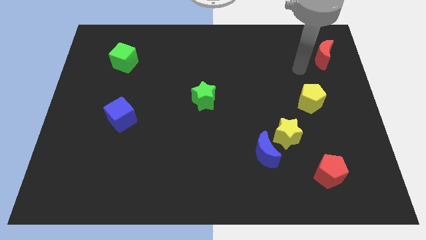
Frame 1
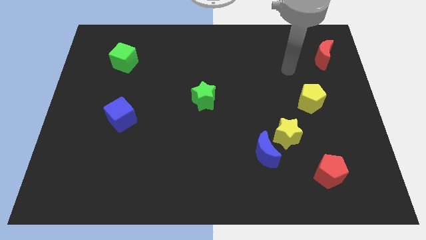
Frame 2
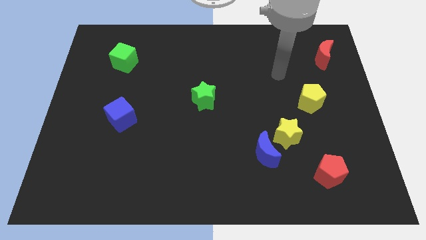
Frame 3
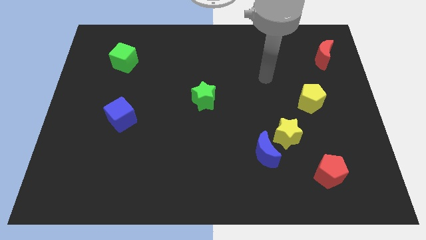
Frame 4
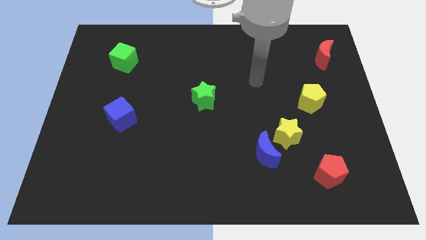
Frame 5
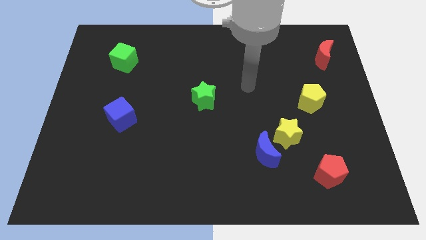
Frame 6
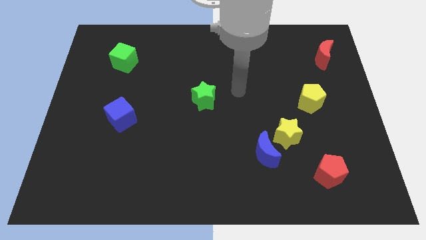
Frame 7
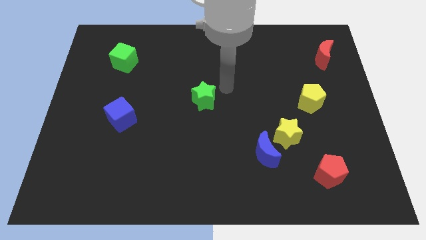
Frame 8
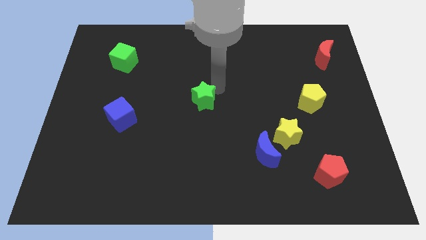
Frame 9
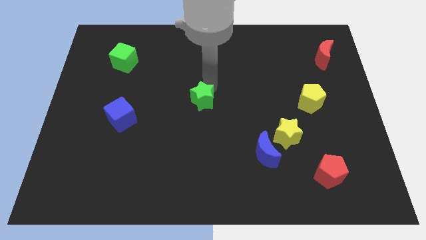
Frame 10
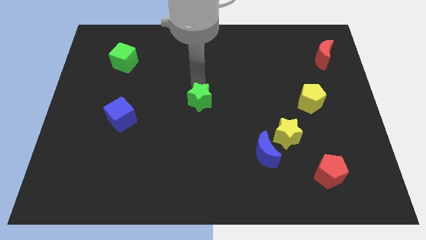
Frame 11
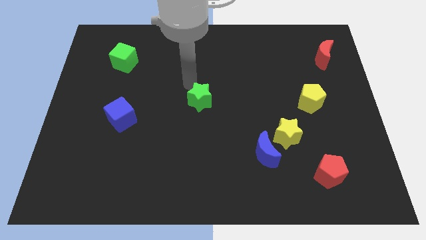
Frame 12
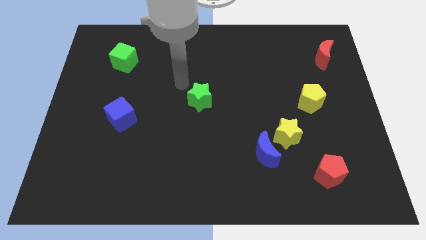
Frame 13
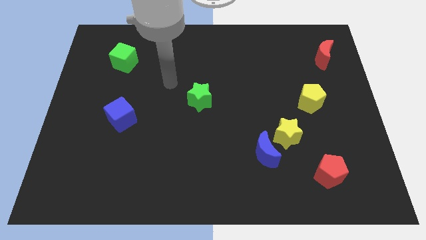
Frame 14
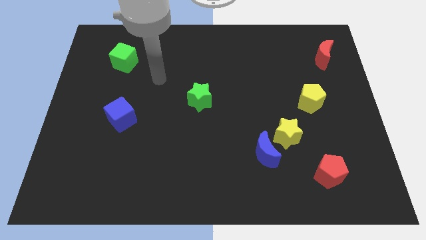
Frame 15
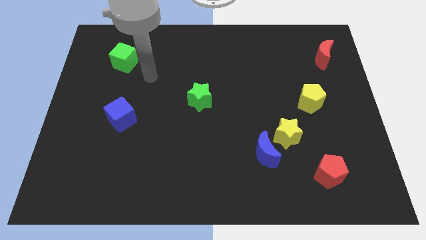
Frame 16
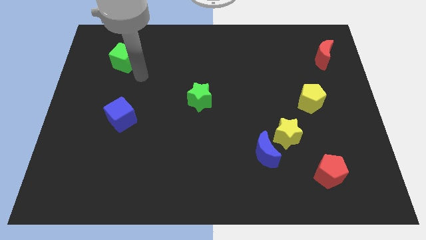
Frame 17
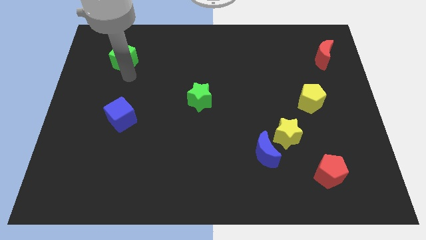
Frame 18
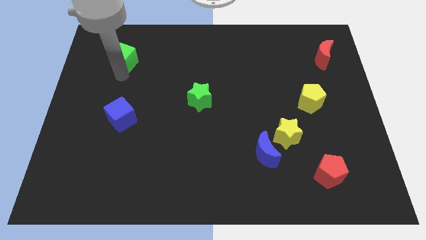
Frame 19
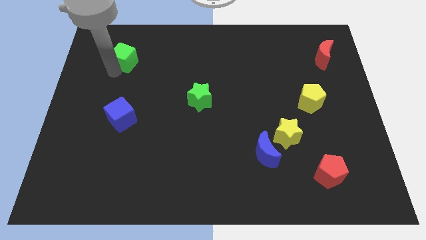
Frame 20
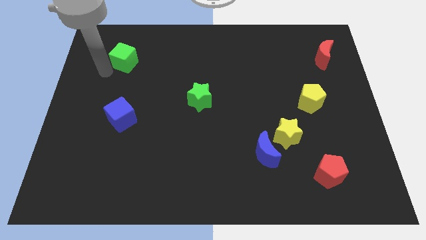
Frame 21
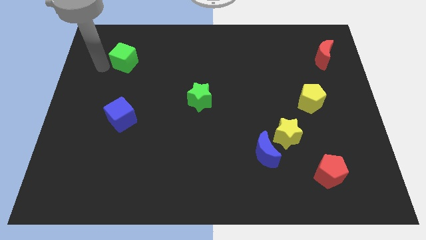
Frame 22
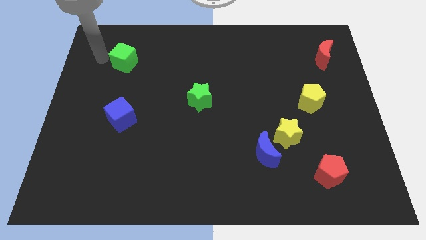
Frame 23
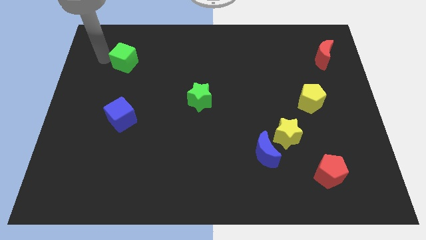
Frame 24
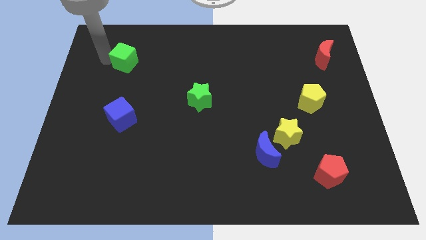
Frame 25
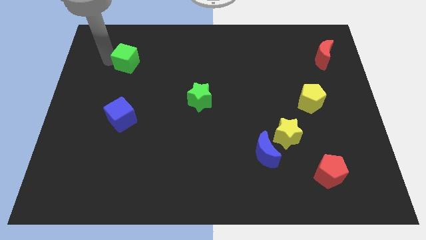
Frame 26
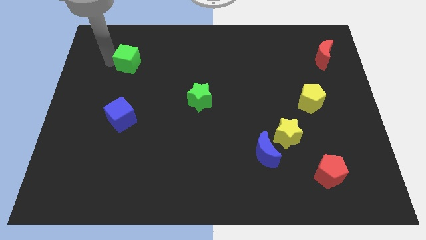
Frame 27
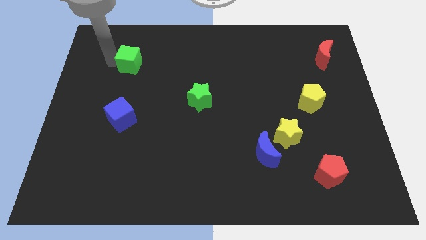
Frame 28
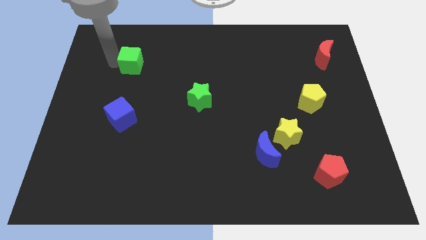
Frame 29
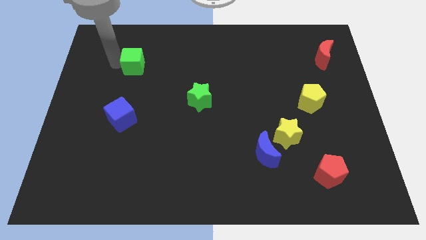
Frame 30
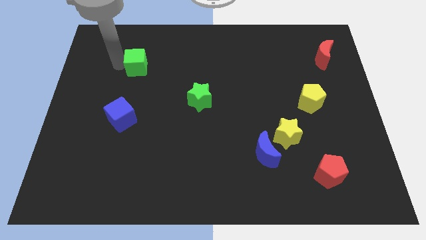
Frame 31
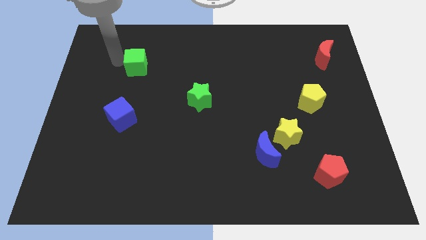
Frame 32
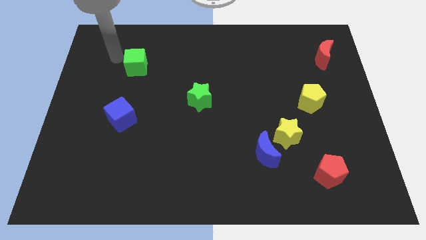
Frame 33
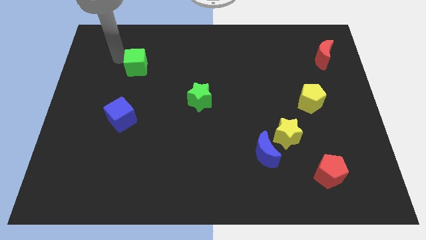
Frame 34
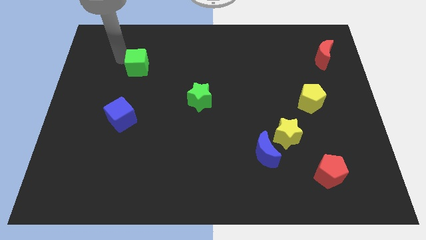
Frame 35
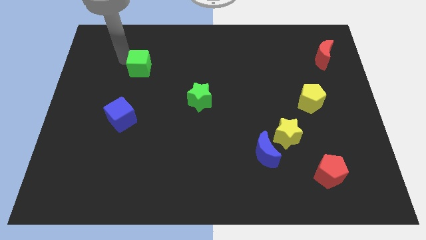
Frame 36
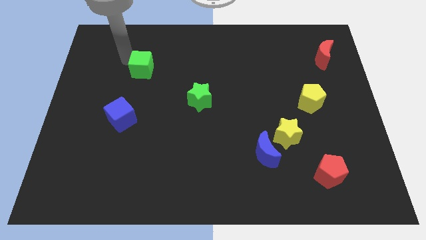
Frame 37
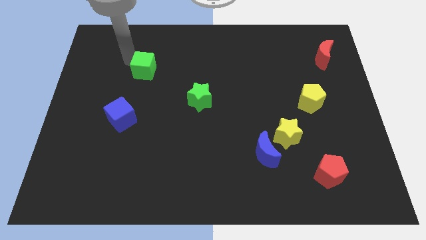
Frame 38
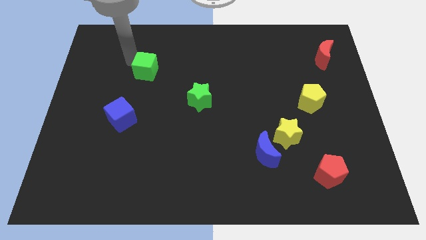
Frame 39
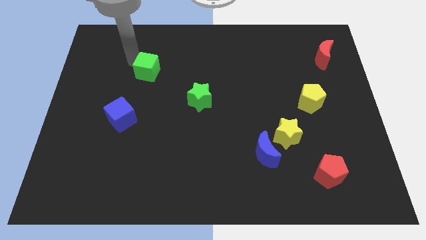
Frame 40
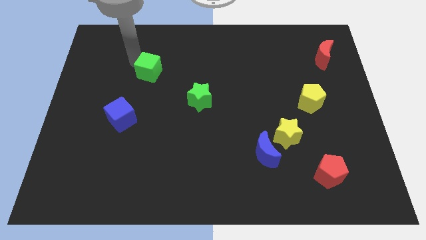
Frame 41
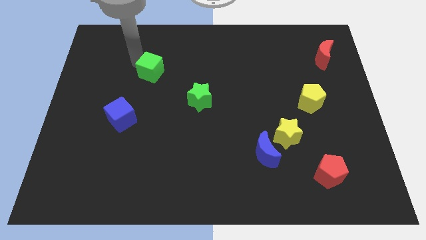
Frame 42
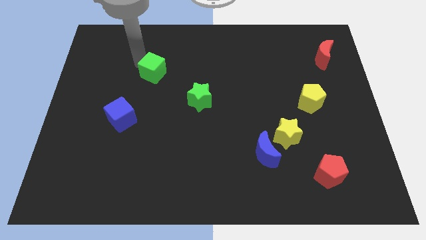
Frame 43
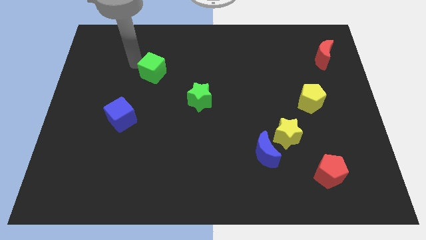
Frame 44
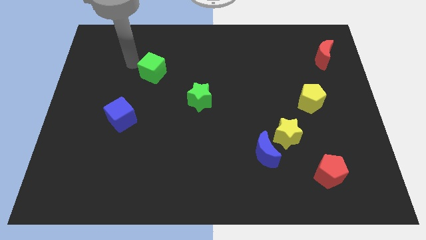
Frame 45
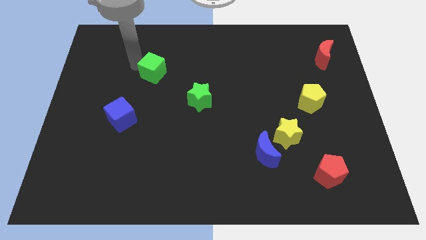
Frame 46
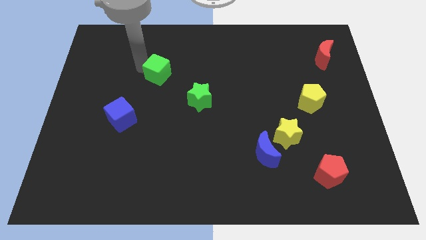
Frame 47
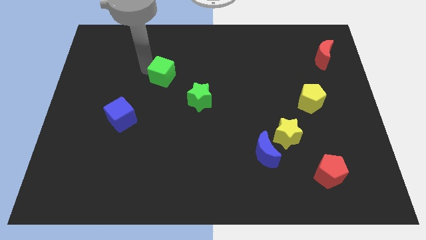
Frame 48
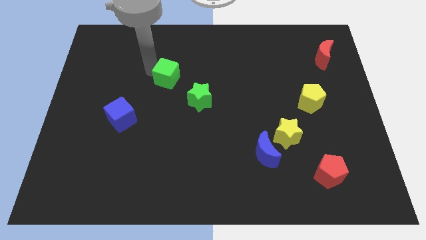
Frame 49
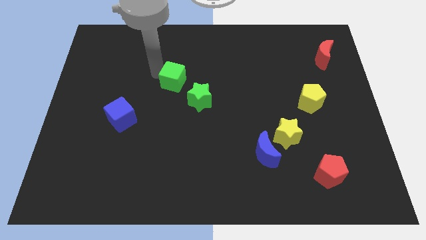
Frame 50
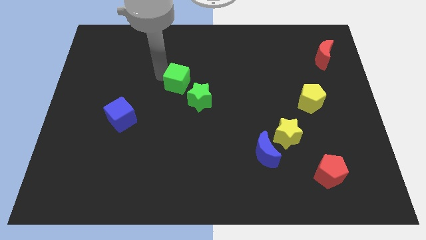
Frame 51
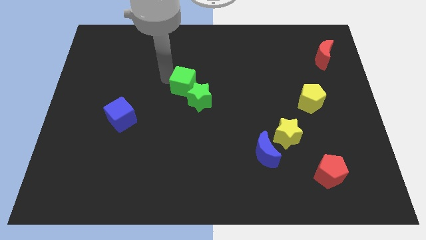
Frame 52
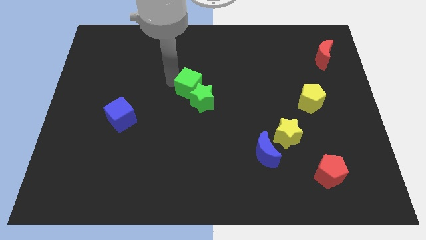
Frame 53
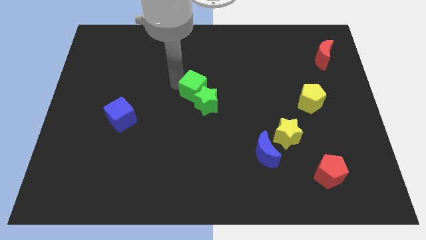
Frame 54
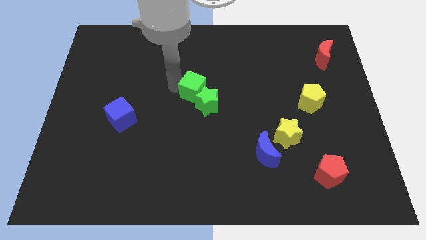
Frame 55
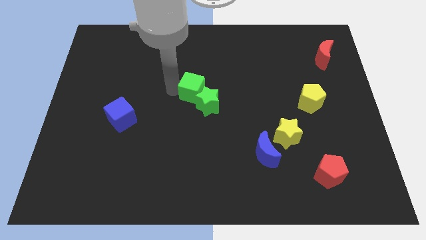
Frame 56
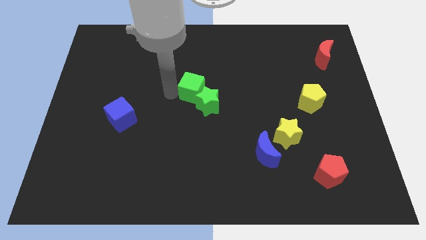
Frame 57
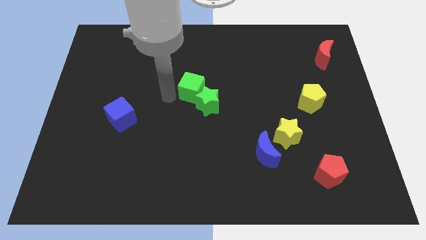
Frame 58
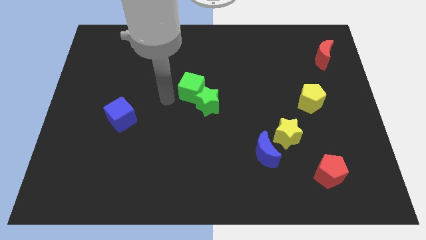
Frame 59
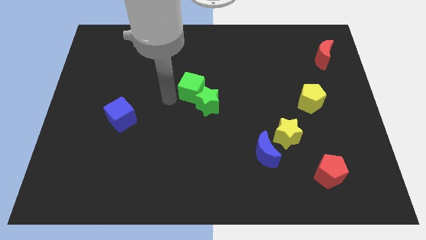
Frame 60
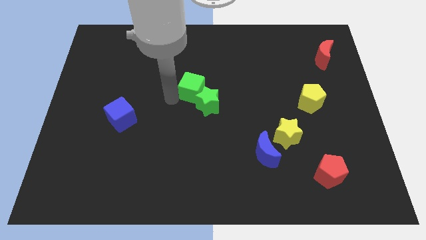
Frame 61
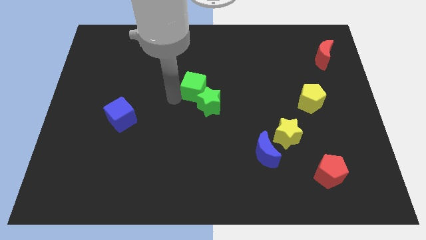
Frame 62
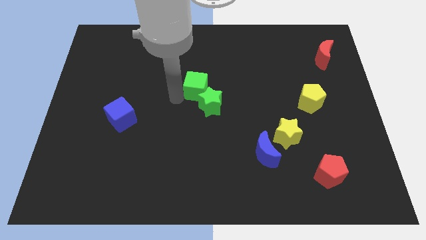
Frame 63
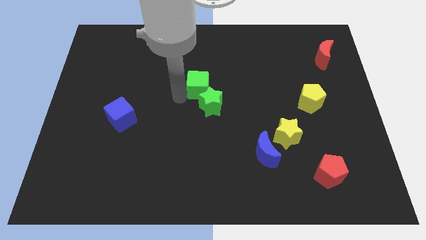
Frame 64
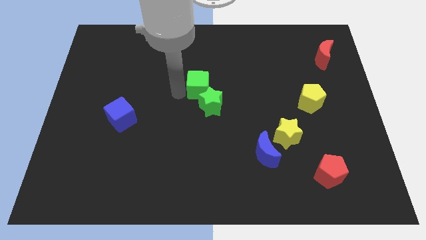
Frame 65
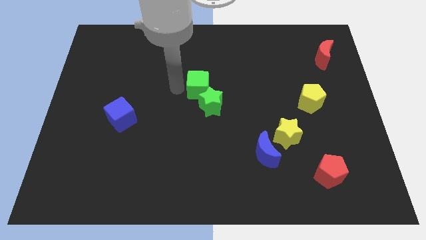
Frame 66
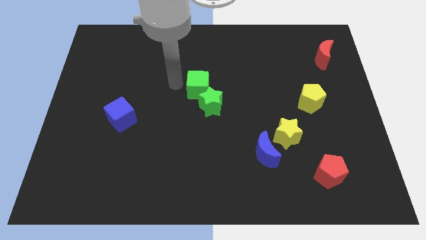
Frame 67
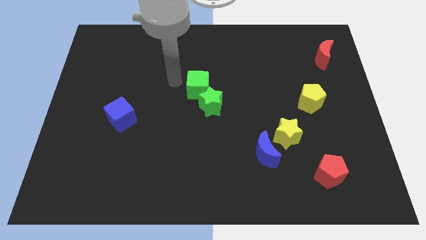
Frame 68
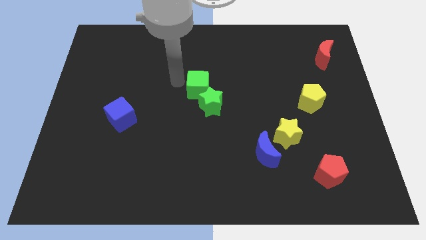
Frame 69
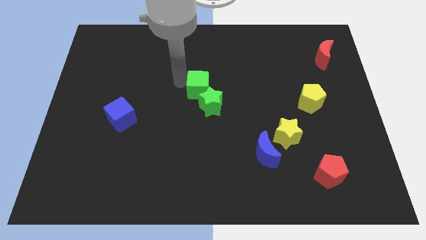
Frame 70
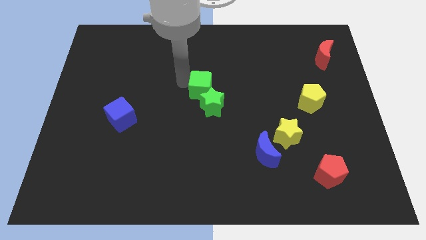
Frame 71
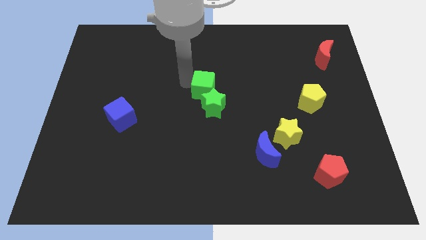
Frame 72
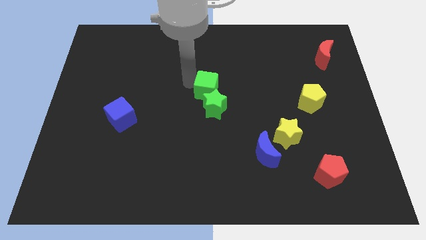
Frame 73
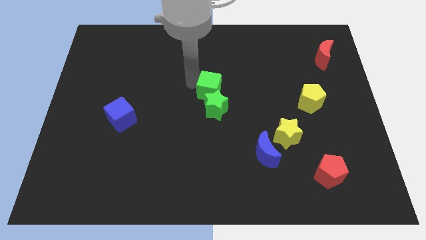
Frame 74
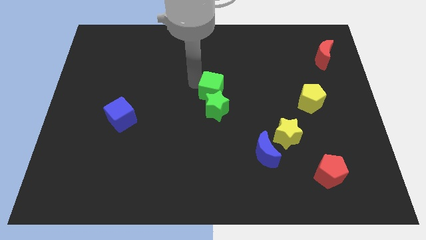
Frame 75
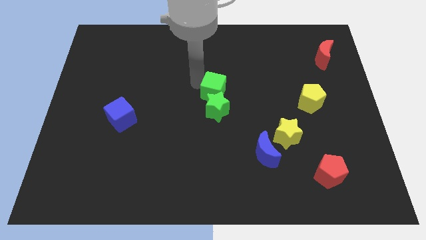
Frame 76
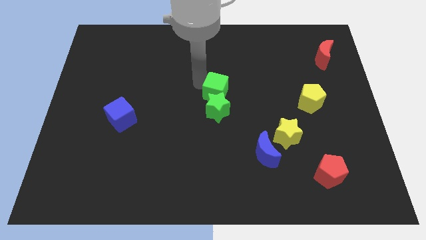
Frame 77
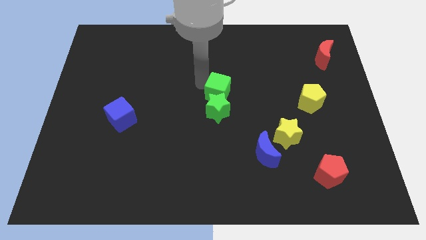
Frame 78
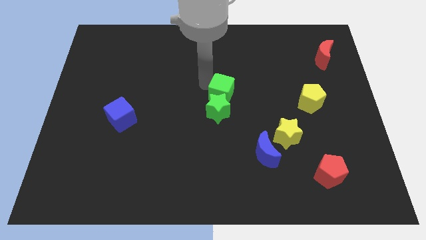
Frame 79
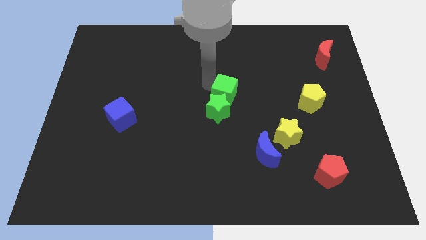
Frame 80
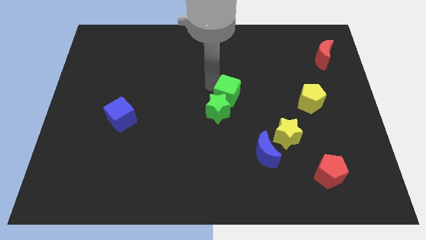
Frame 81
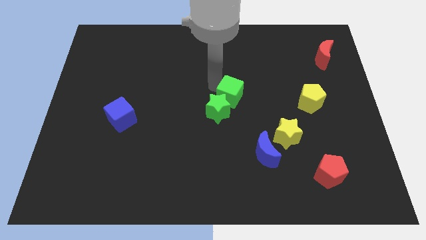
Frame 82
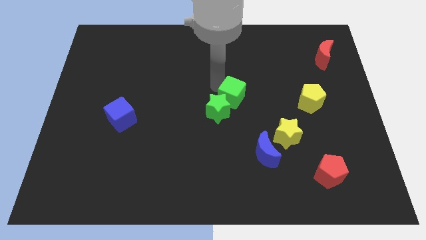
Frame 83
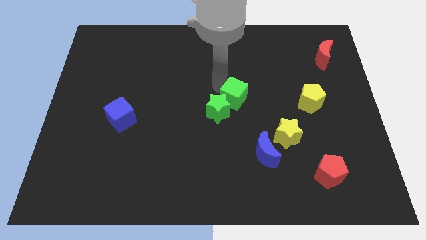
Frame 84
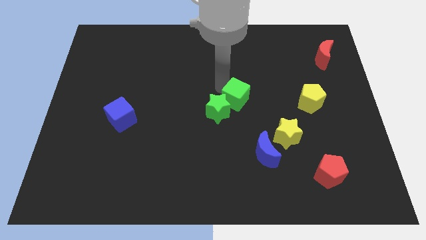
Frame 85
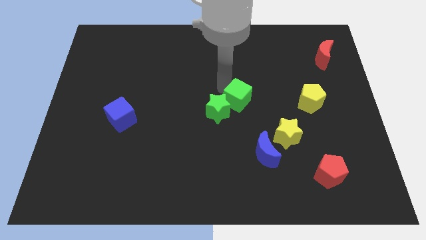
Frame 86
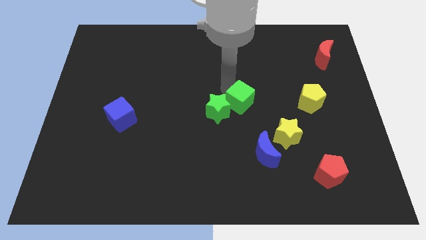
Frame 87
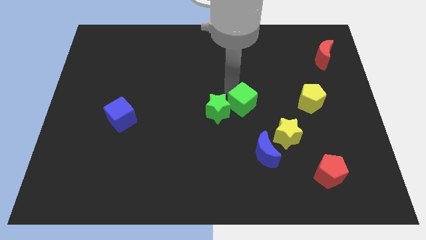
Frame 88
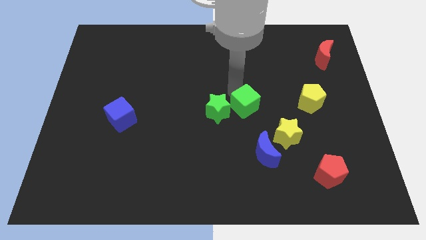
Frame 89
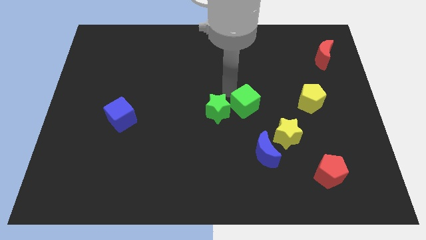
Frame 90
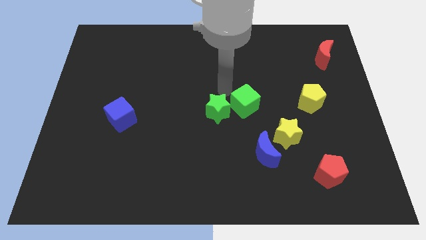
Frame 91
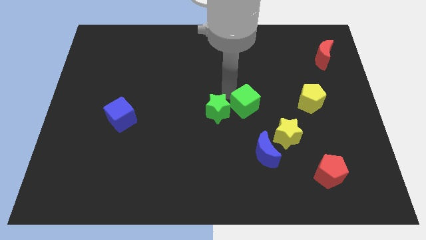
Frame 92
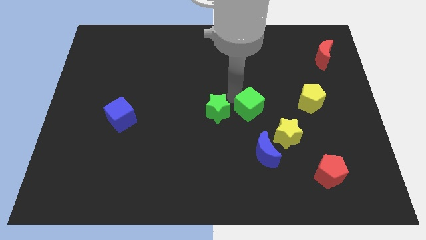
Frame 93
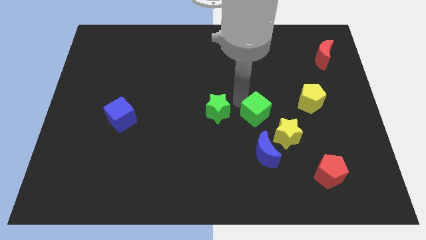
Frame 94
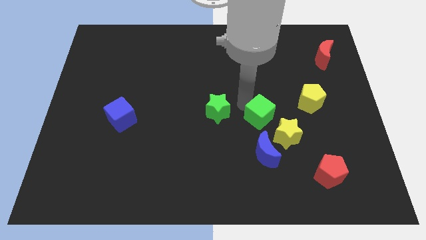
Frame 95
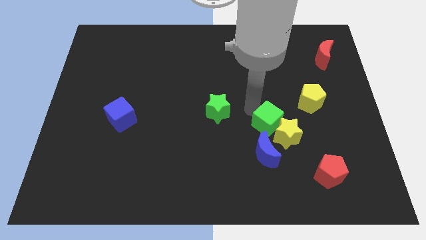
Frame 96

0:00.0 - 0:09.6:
move the green cube to the yellow star
